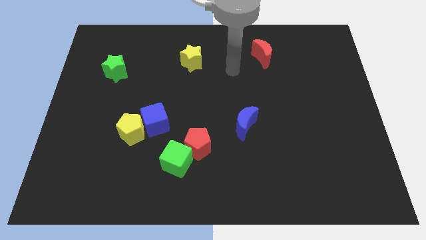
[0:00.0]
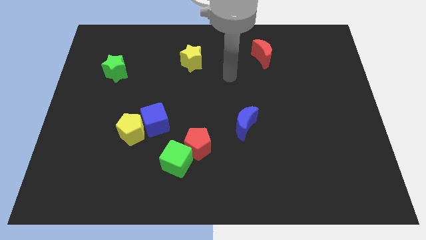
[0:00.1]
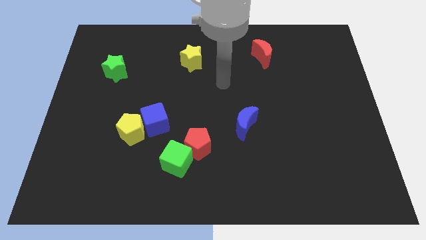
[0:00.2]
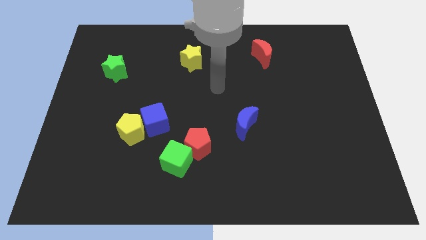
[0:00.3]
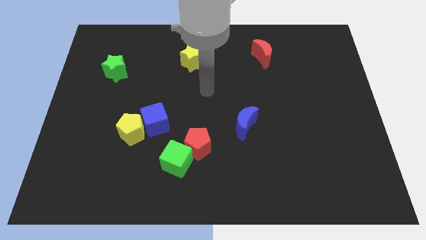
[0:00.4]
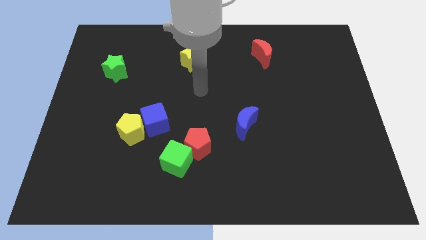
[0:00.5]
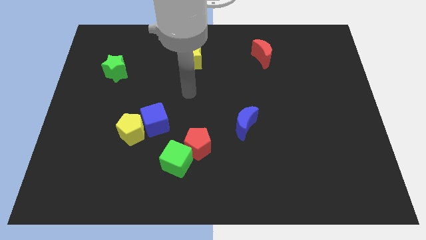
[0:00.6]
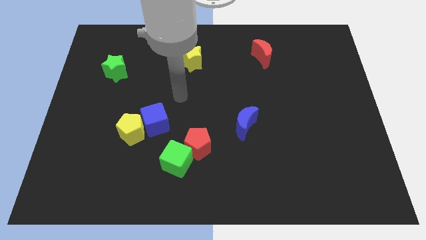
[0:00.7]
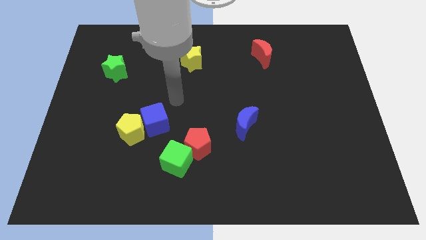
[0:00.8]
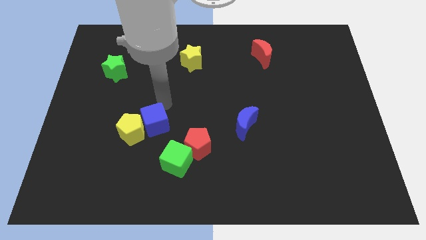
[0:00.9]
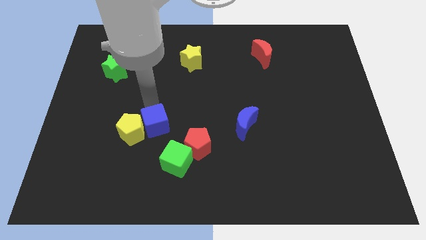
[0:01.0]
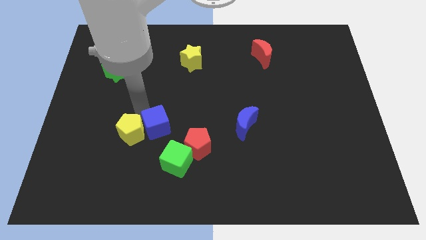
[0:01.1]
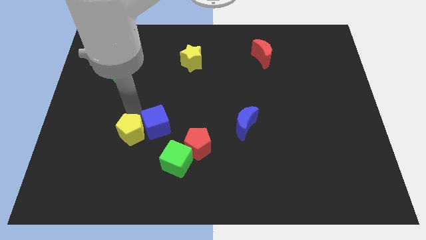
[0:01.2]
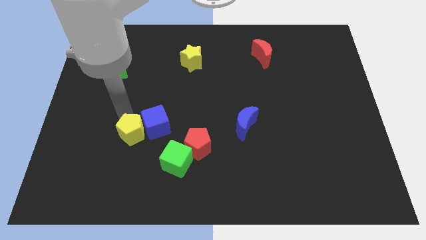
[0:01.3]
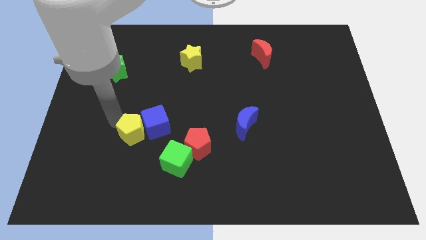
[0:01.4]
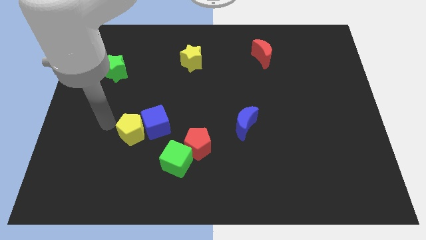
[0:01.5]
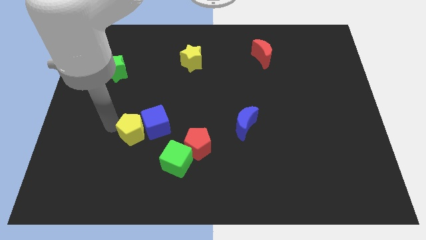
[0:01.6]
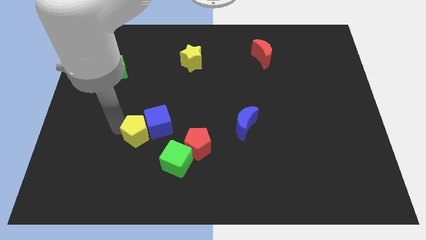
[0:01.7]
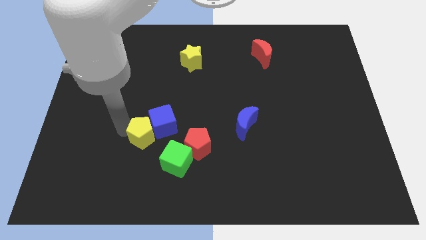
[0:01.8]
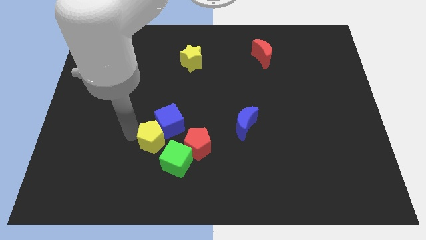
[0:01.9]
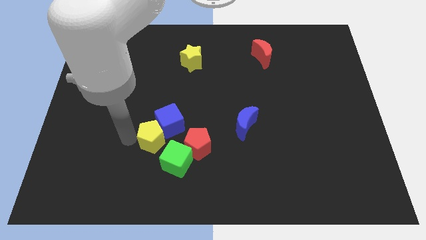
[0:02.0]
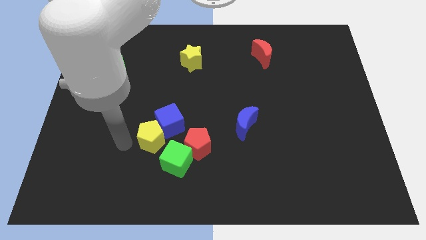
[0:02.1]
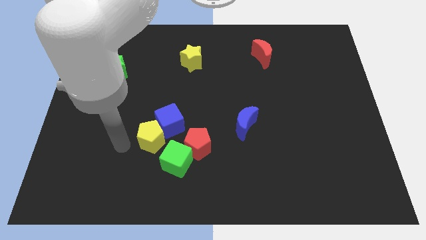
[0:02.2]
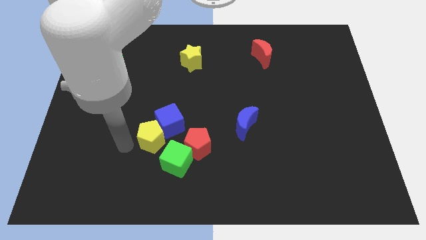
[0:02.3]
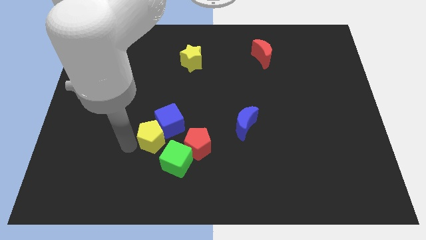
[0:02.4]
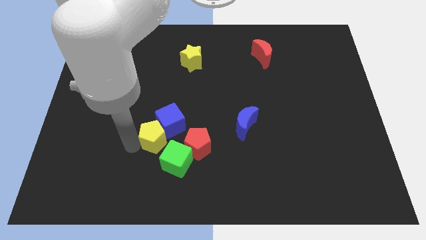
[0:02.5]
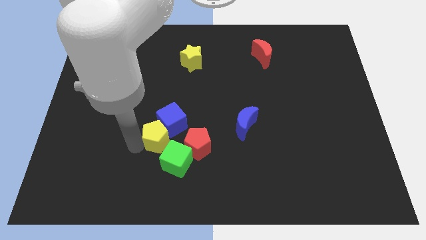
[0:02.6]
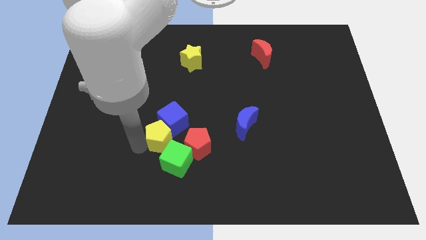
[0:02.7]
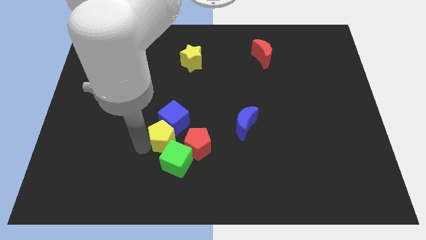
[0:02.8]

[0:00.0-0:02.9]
move the yellow pentagon right a little bit

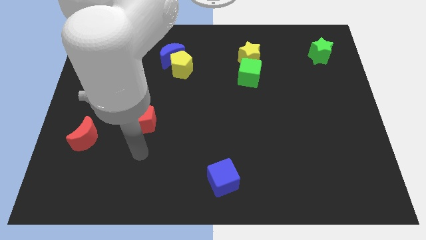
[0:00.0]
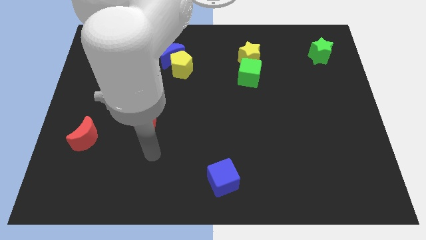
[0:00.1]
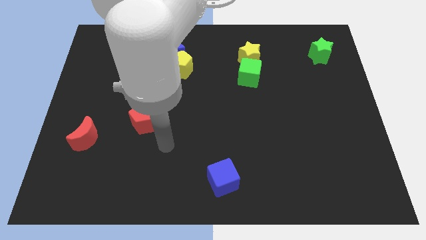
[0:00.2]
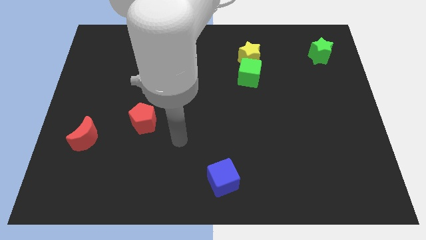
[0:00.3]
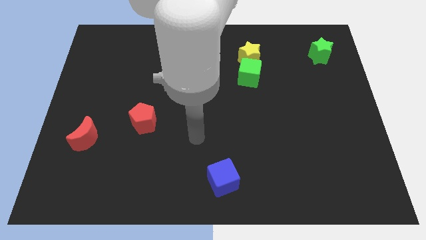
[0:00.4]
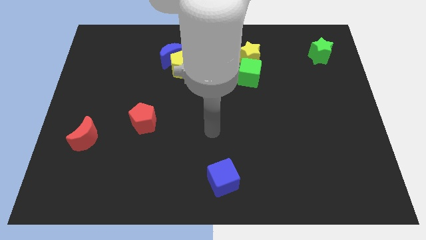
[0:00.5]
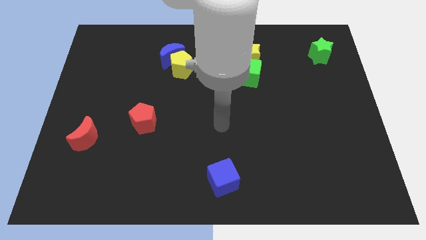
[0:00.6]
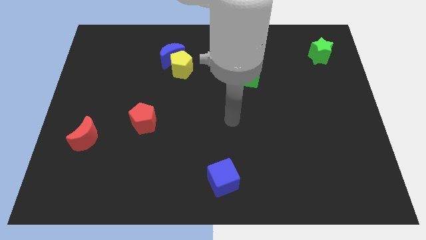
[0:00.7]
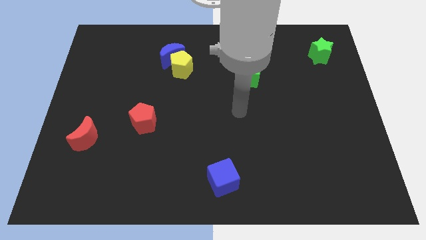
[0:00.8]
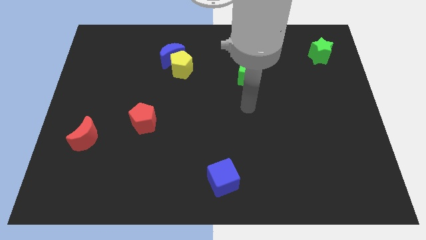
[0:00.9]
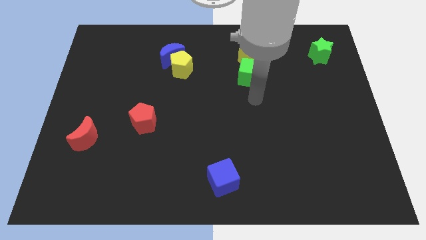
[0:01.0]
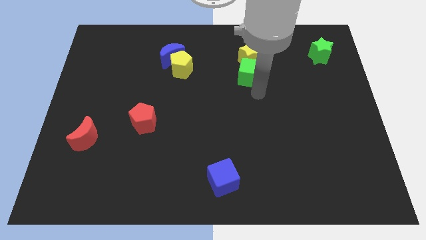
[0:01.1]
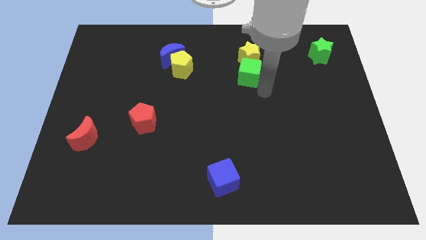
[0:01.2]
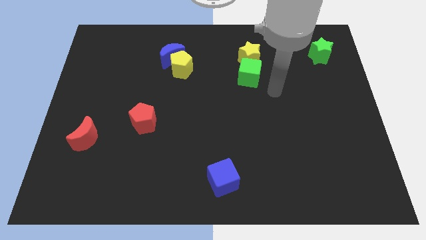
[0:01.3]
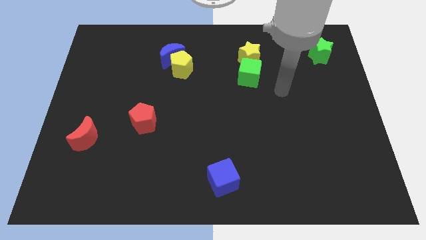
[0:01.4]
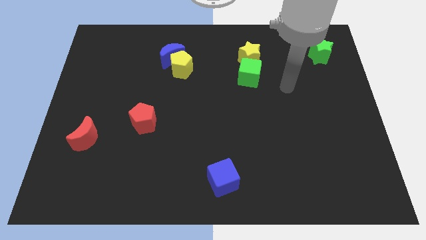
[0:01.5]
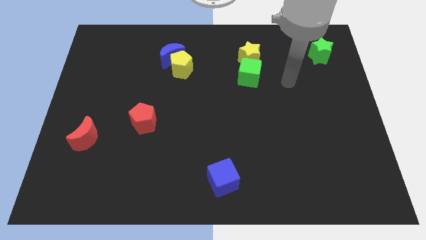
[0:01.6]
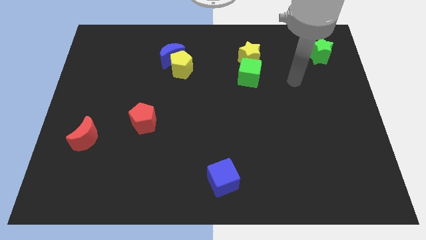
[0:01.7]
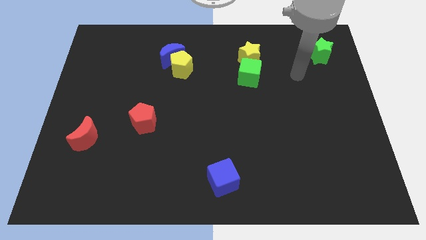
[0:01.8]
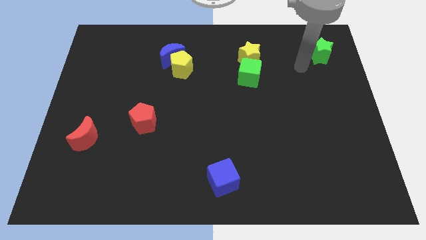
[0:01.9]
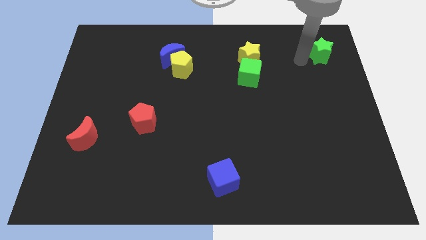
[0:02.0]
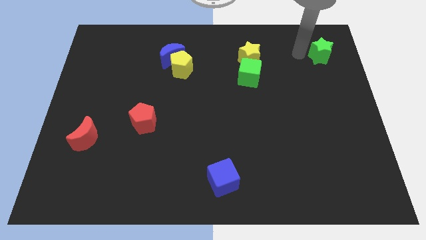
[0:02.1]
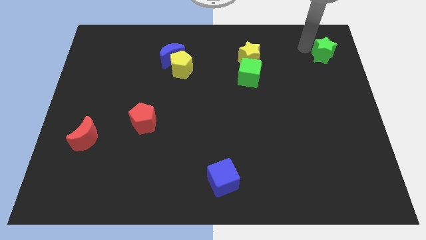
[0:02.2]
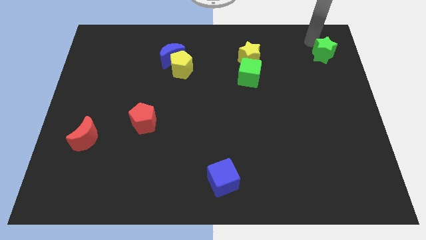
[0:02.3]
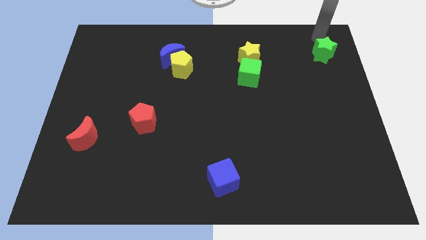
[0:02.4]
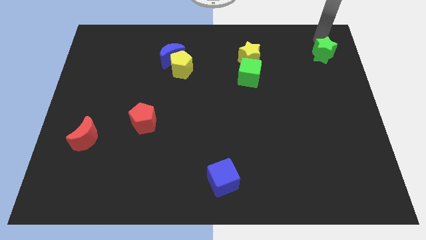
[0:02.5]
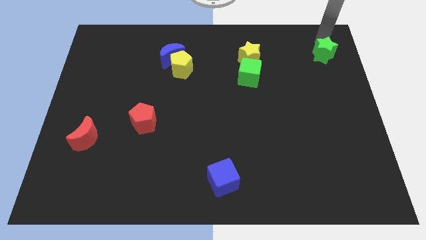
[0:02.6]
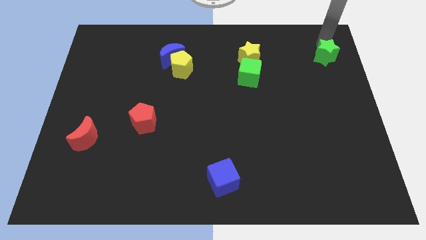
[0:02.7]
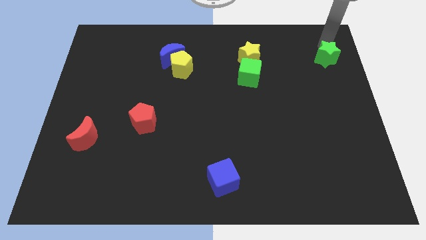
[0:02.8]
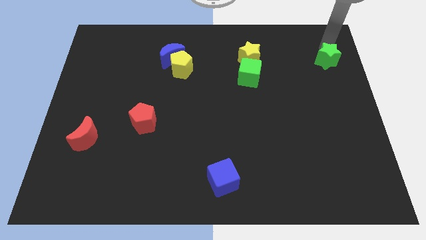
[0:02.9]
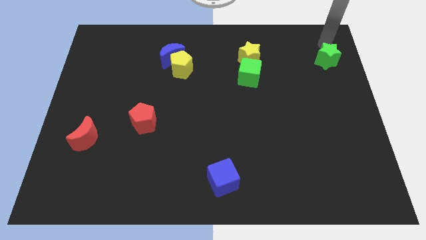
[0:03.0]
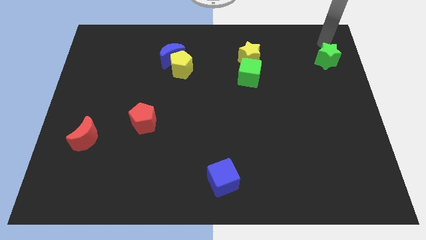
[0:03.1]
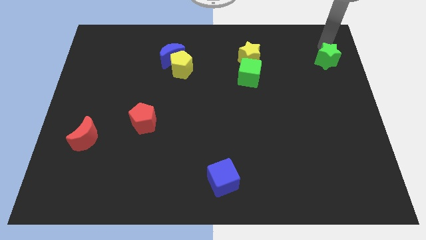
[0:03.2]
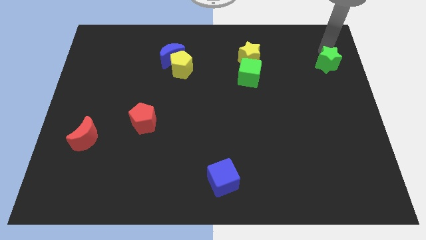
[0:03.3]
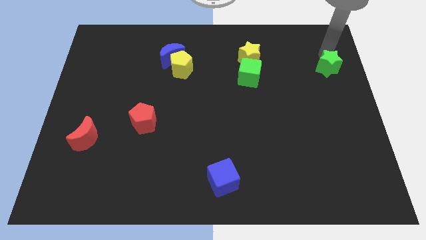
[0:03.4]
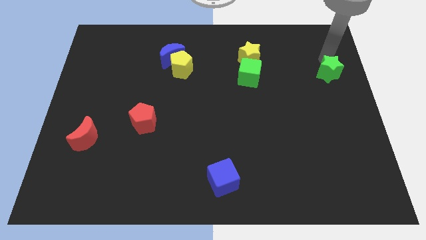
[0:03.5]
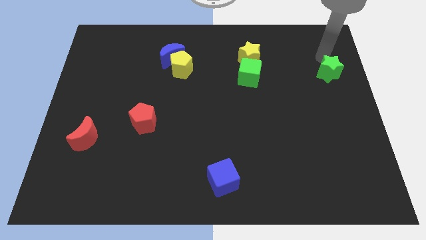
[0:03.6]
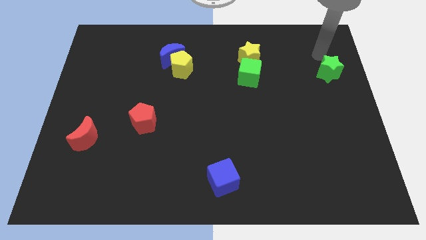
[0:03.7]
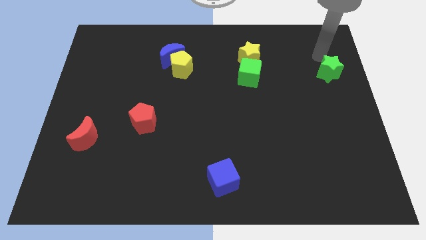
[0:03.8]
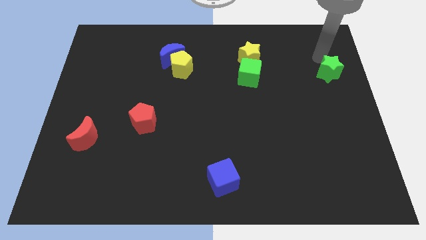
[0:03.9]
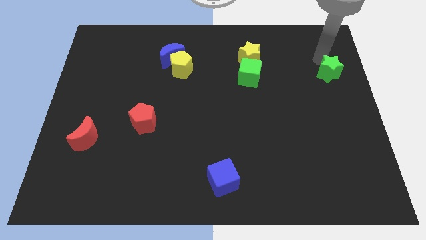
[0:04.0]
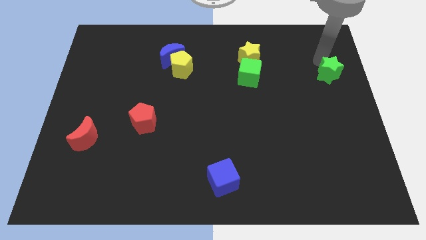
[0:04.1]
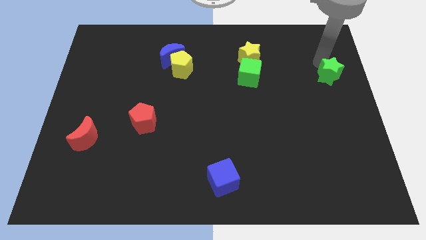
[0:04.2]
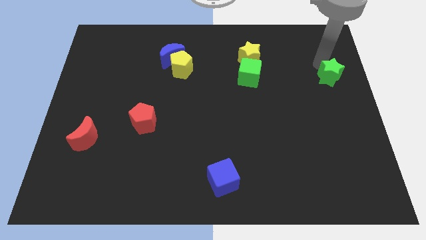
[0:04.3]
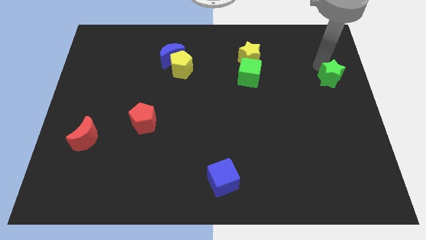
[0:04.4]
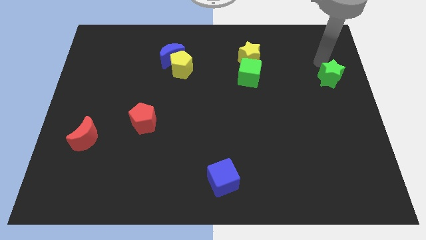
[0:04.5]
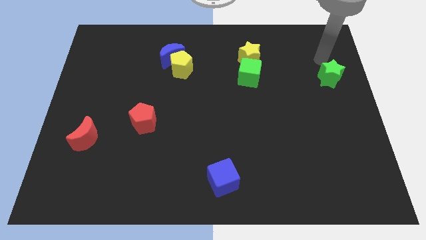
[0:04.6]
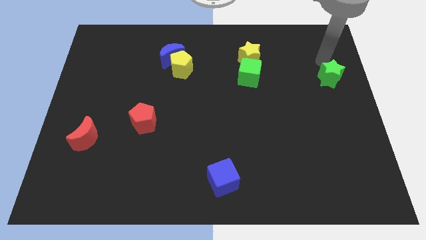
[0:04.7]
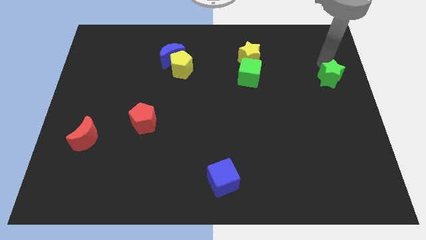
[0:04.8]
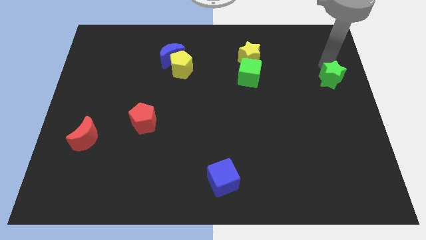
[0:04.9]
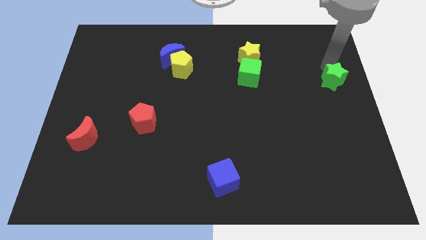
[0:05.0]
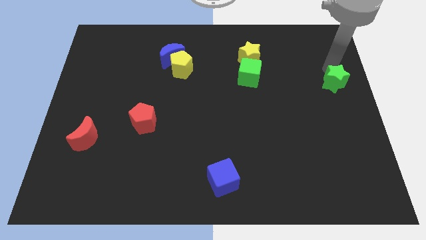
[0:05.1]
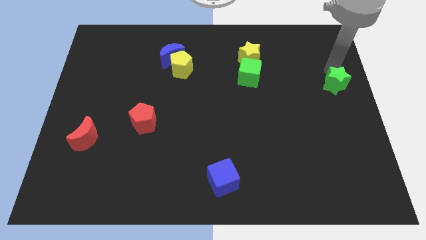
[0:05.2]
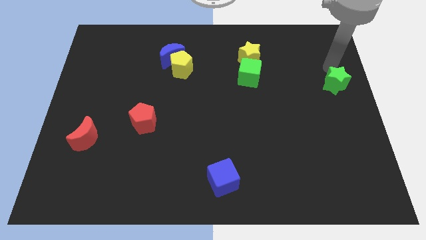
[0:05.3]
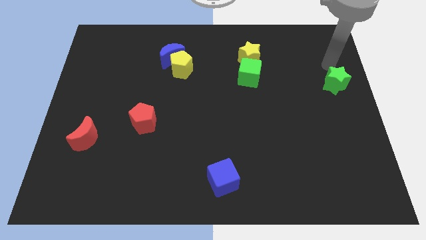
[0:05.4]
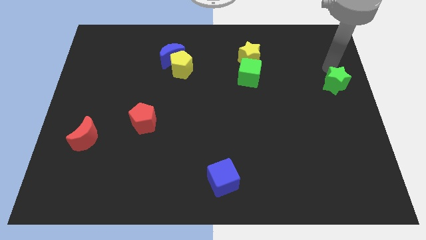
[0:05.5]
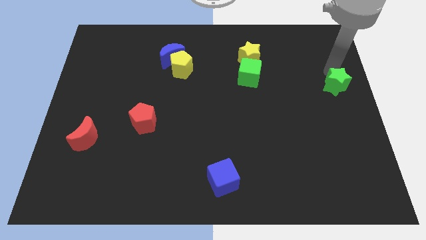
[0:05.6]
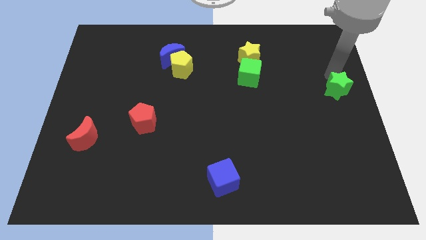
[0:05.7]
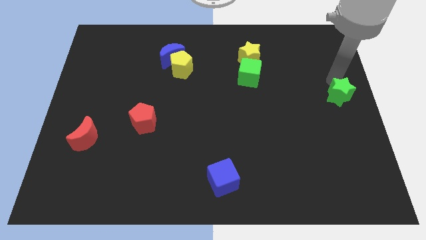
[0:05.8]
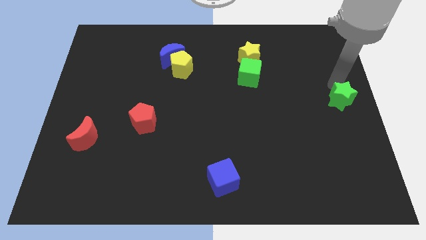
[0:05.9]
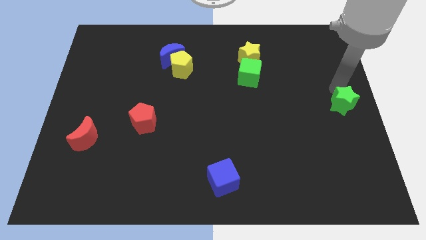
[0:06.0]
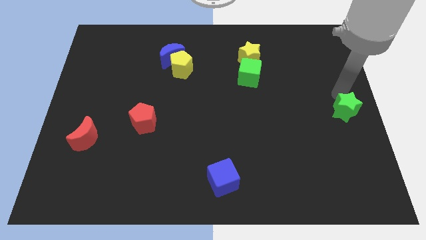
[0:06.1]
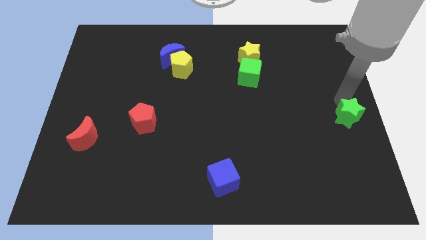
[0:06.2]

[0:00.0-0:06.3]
move the green star downwards
